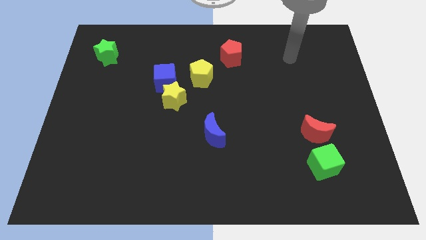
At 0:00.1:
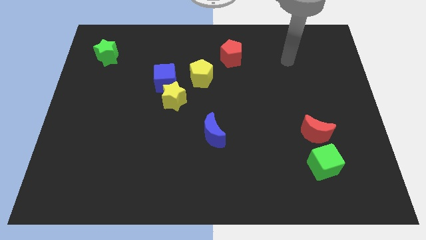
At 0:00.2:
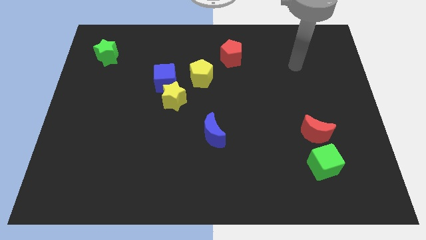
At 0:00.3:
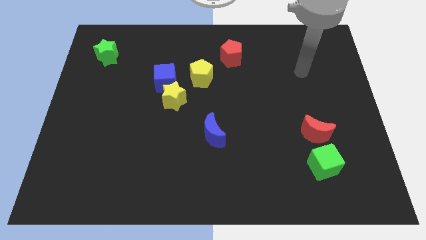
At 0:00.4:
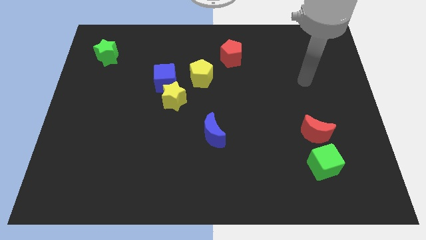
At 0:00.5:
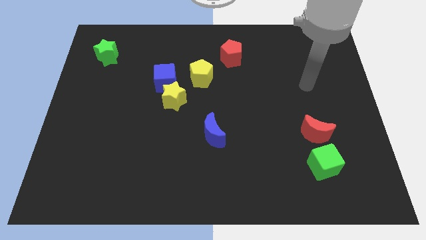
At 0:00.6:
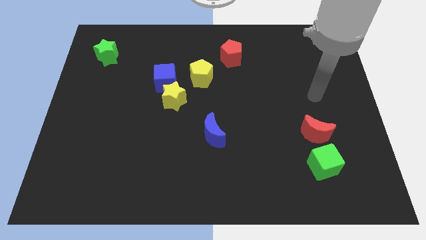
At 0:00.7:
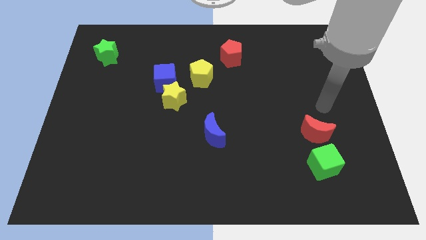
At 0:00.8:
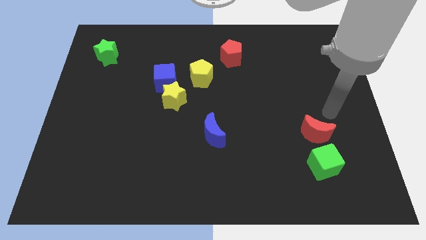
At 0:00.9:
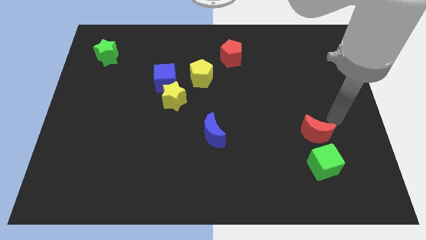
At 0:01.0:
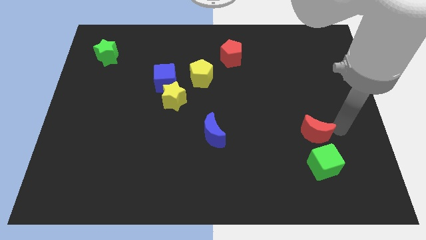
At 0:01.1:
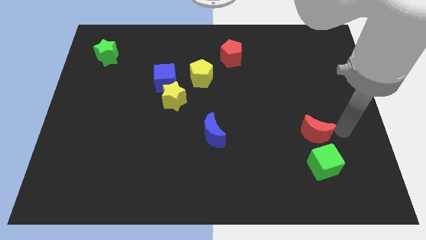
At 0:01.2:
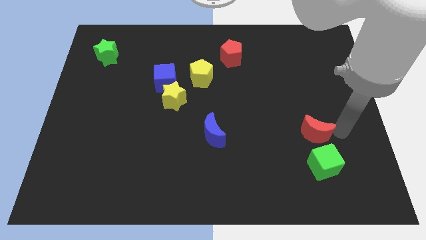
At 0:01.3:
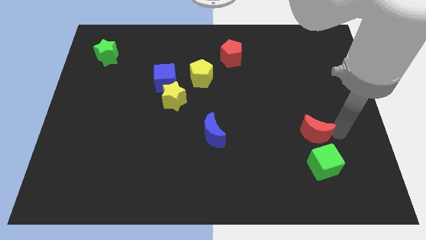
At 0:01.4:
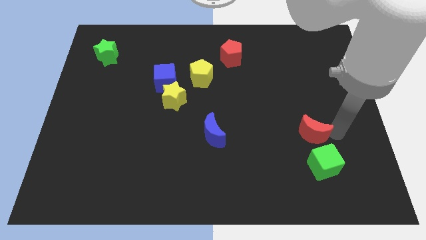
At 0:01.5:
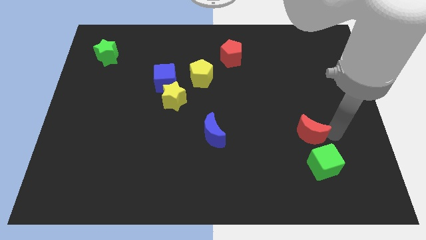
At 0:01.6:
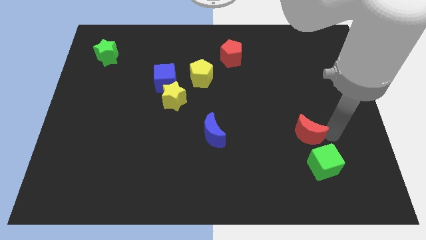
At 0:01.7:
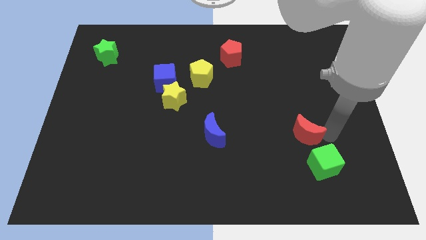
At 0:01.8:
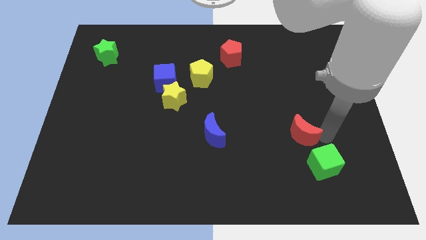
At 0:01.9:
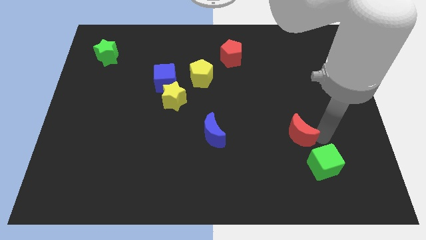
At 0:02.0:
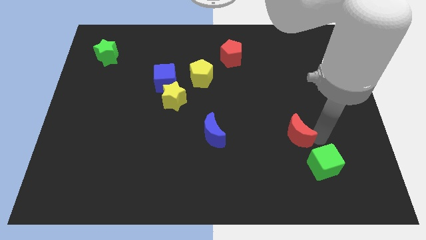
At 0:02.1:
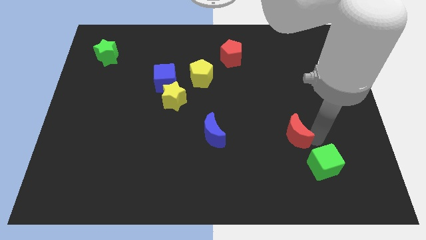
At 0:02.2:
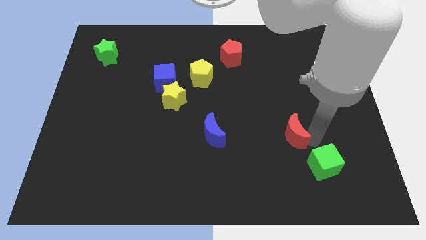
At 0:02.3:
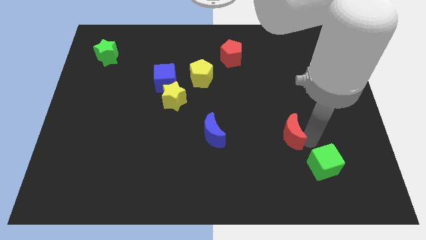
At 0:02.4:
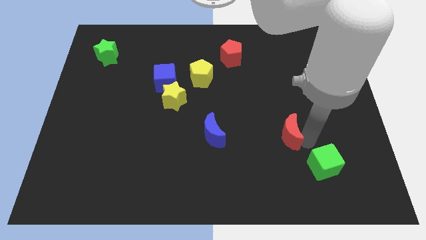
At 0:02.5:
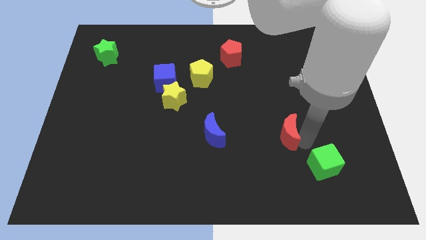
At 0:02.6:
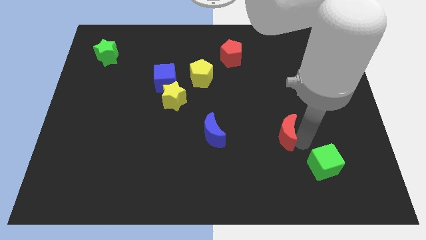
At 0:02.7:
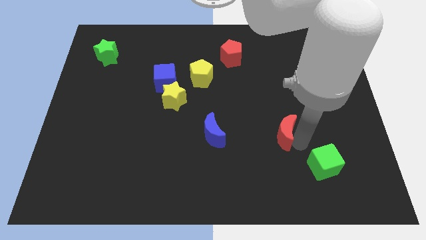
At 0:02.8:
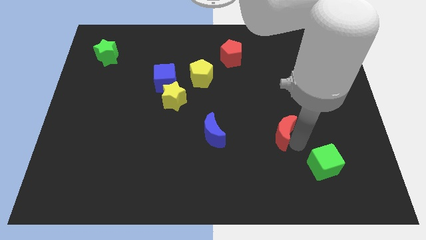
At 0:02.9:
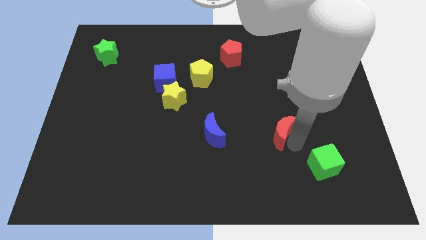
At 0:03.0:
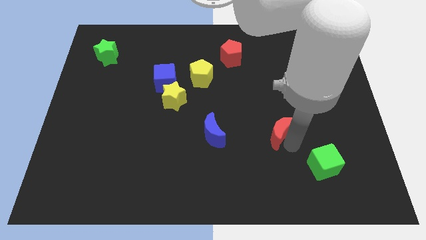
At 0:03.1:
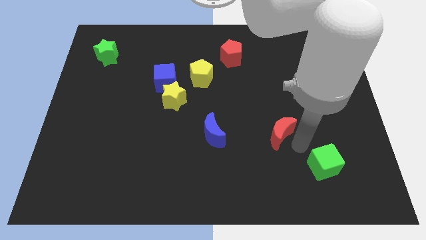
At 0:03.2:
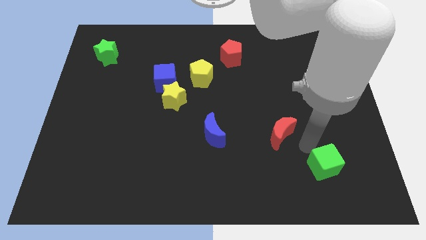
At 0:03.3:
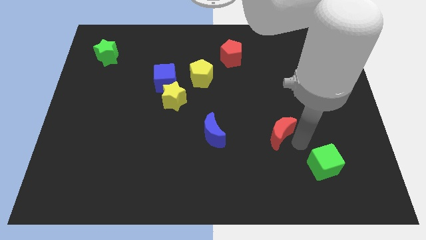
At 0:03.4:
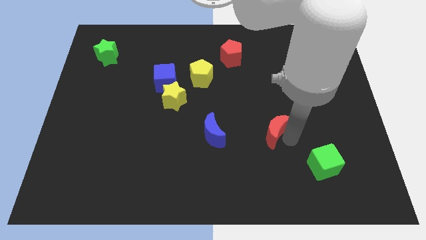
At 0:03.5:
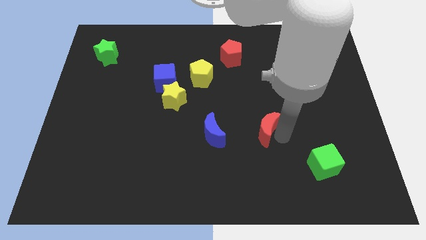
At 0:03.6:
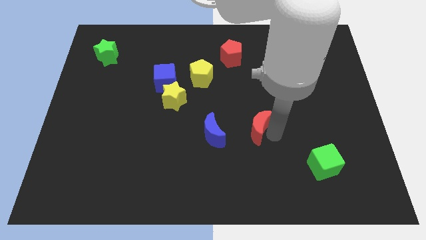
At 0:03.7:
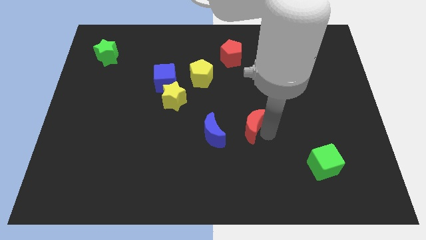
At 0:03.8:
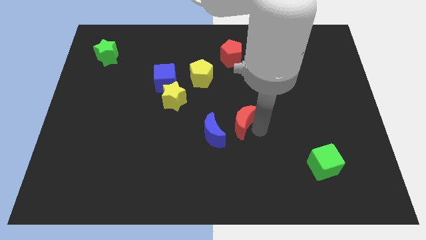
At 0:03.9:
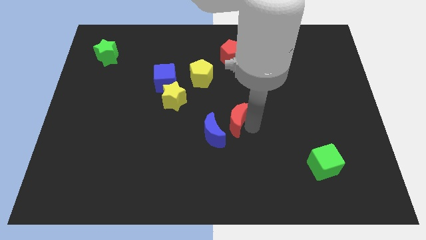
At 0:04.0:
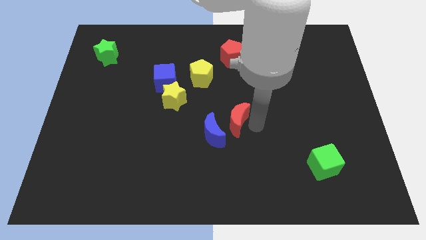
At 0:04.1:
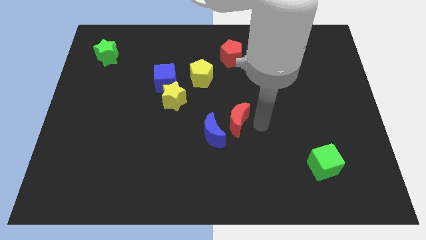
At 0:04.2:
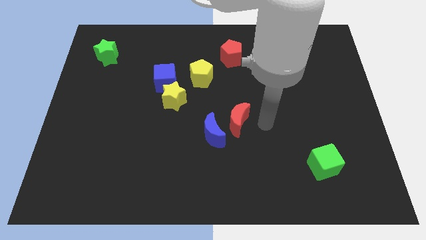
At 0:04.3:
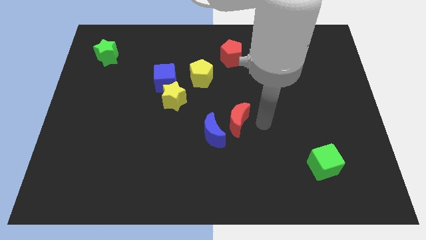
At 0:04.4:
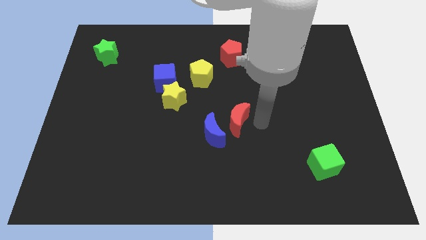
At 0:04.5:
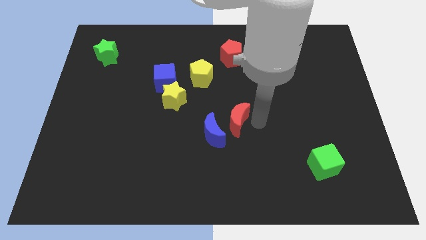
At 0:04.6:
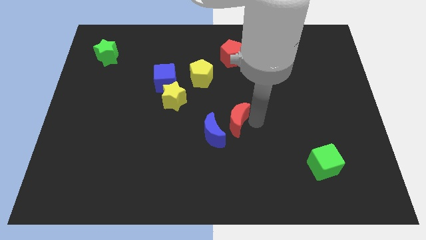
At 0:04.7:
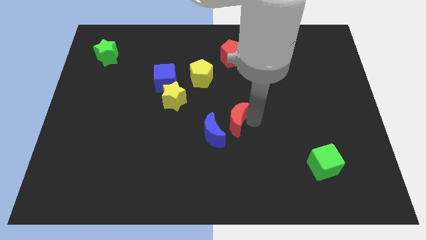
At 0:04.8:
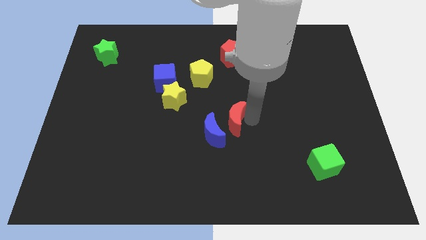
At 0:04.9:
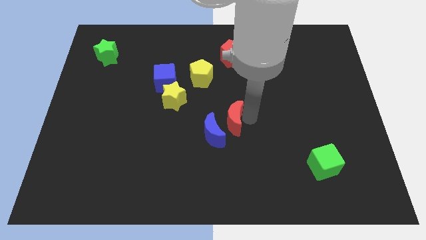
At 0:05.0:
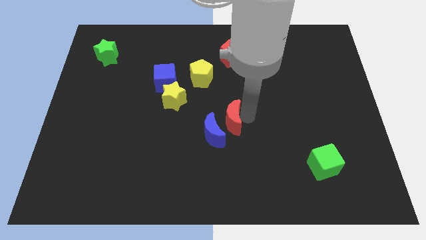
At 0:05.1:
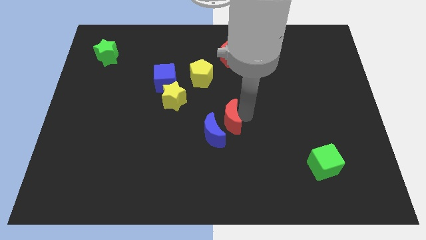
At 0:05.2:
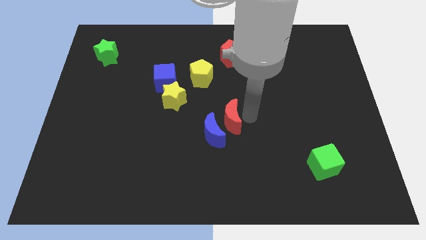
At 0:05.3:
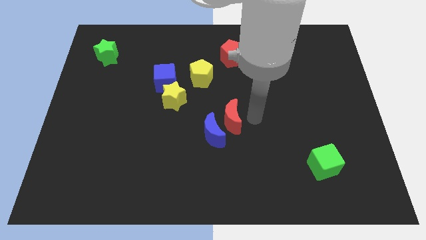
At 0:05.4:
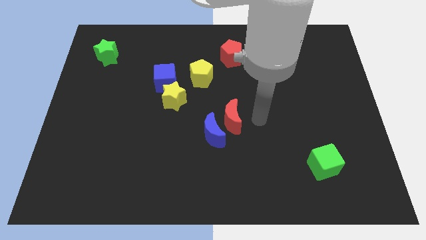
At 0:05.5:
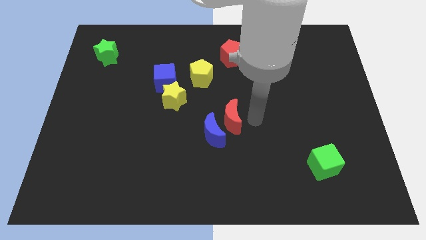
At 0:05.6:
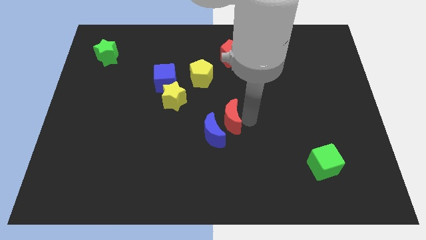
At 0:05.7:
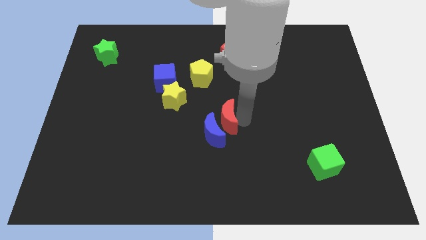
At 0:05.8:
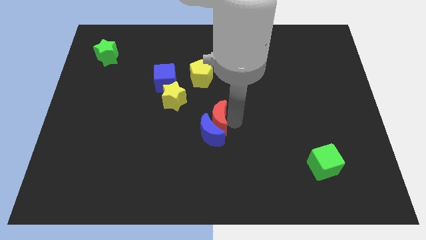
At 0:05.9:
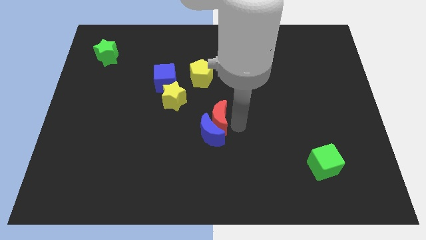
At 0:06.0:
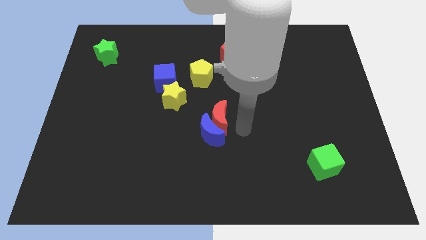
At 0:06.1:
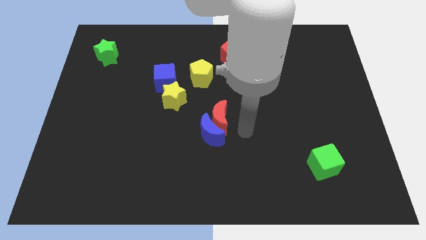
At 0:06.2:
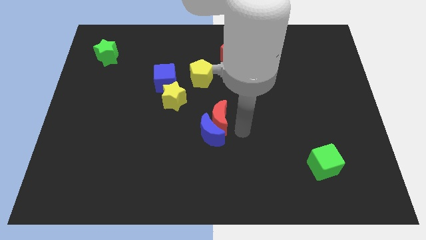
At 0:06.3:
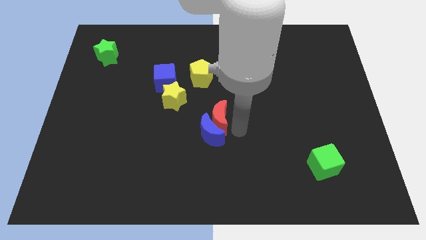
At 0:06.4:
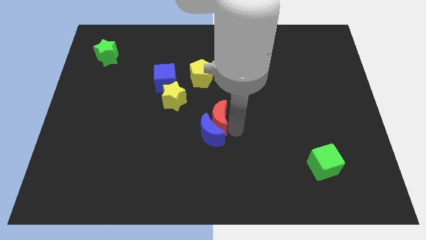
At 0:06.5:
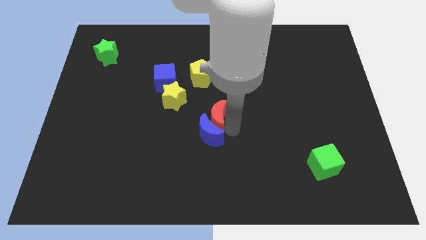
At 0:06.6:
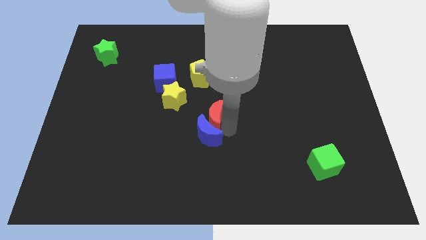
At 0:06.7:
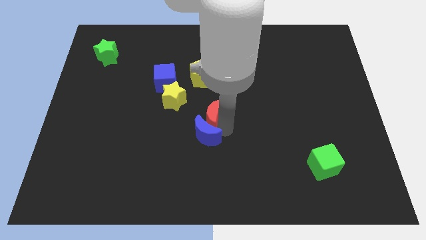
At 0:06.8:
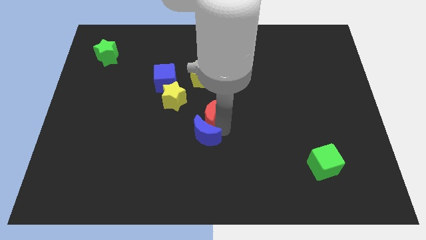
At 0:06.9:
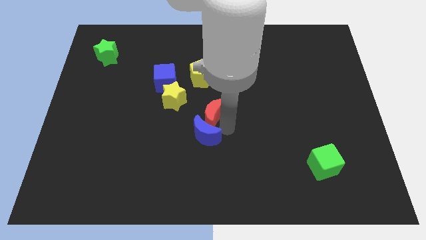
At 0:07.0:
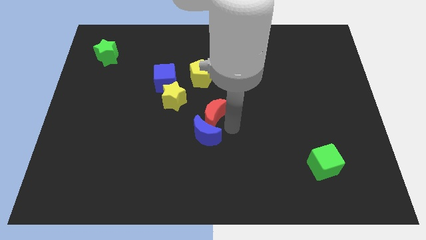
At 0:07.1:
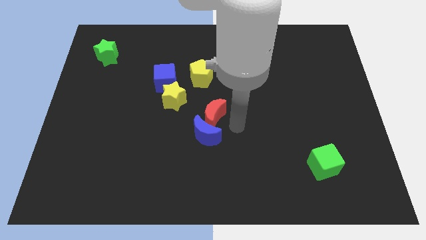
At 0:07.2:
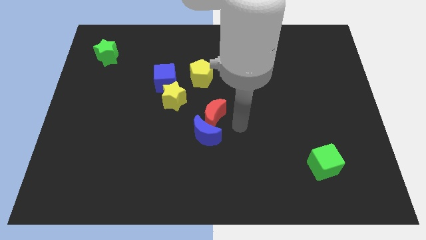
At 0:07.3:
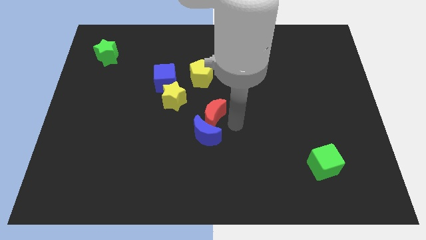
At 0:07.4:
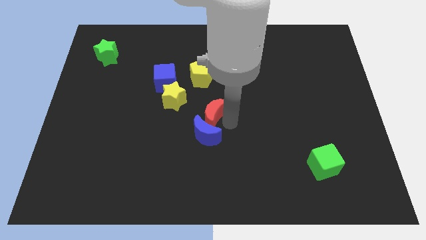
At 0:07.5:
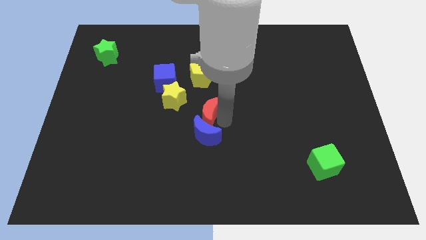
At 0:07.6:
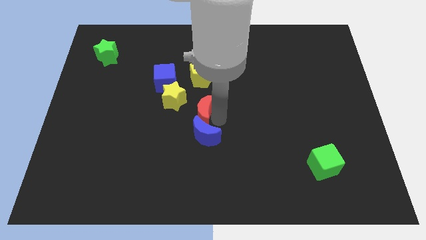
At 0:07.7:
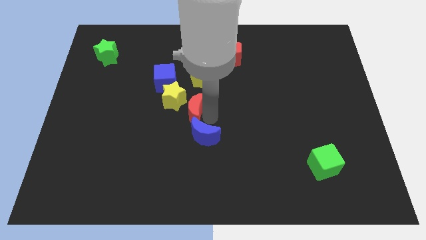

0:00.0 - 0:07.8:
slide the red moon to the yellow star
